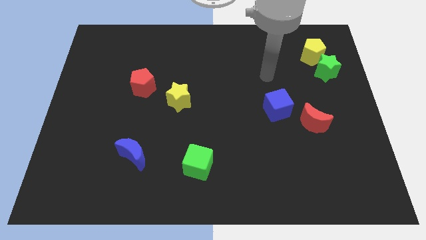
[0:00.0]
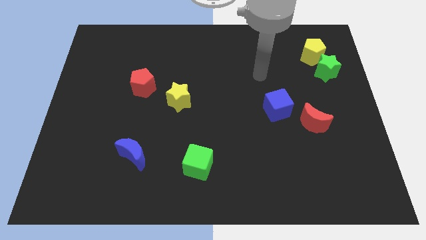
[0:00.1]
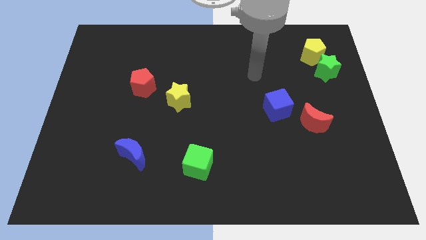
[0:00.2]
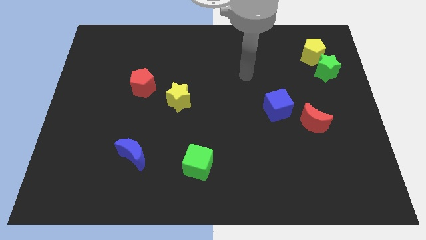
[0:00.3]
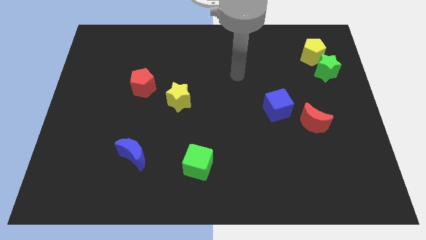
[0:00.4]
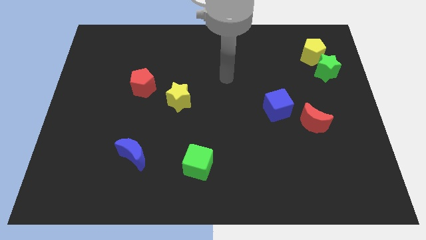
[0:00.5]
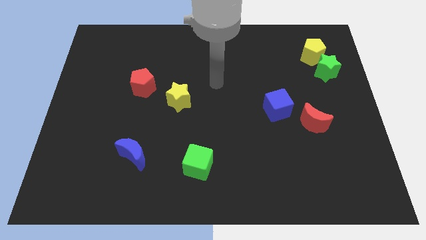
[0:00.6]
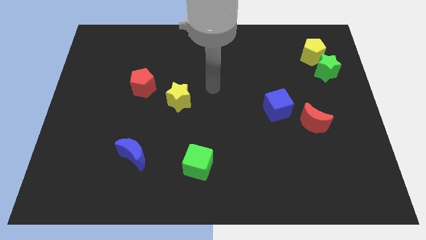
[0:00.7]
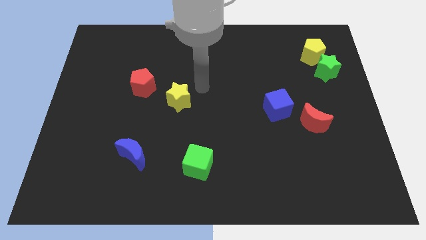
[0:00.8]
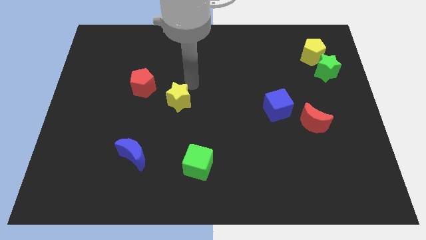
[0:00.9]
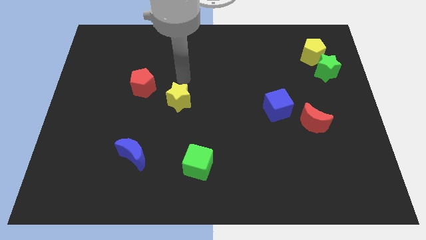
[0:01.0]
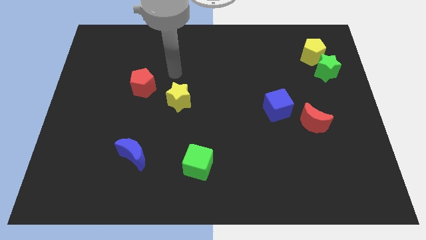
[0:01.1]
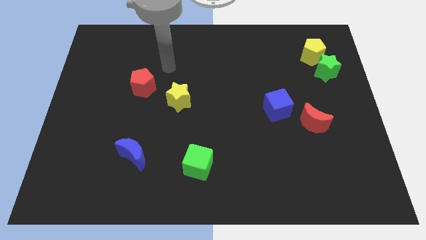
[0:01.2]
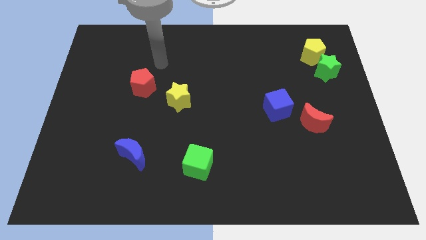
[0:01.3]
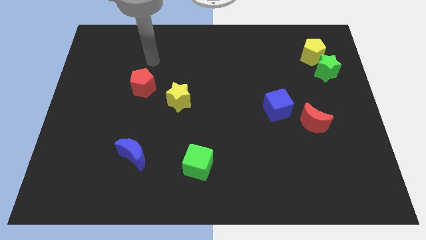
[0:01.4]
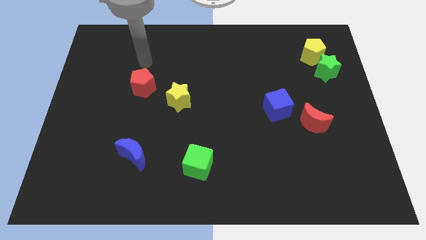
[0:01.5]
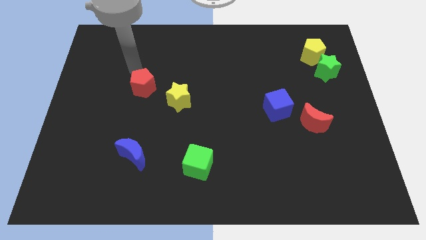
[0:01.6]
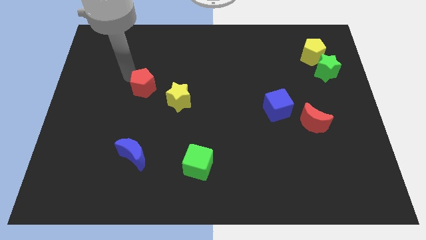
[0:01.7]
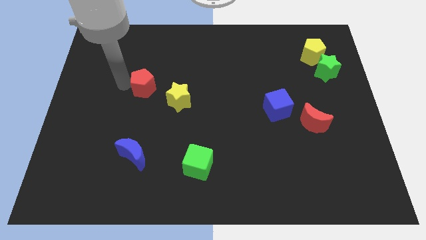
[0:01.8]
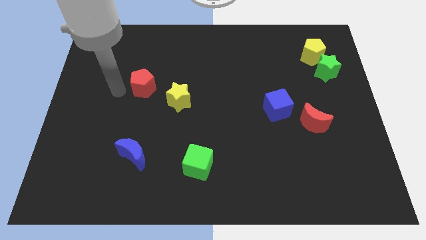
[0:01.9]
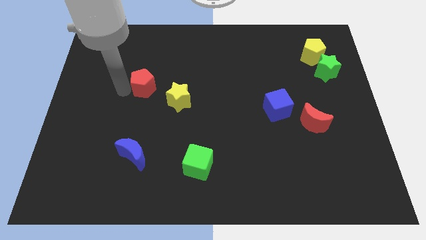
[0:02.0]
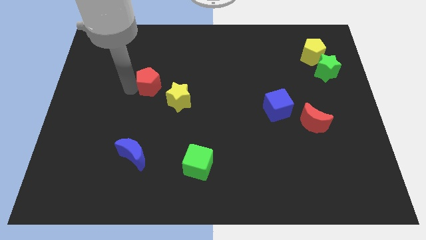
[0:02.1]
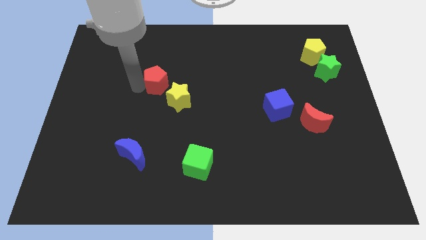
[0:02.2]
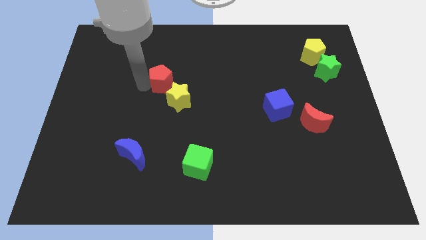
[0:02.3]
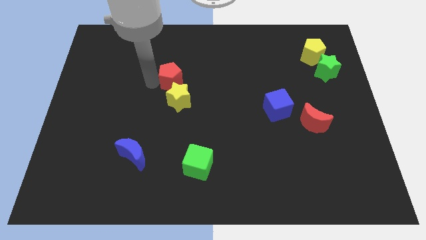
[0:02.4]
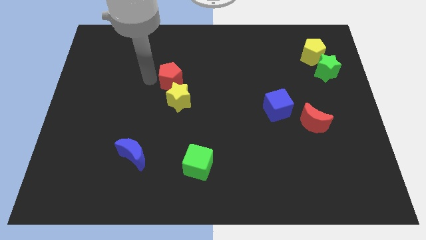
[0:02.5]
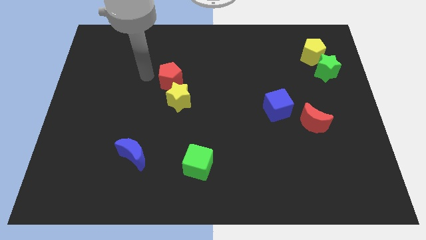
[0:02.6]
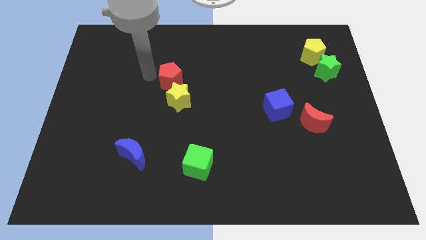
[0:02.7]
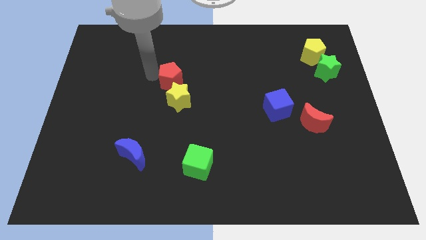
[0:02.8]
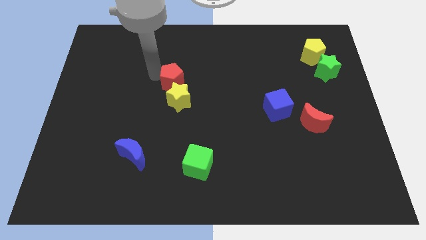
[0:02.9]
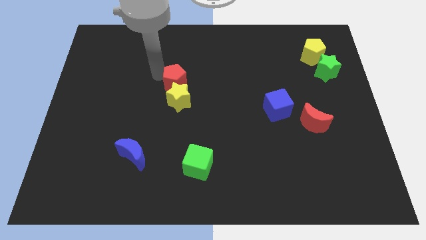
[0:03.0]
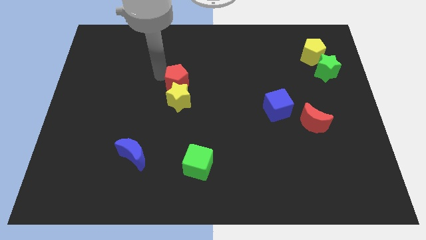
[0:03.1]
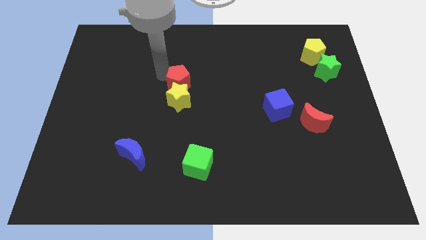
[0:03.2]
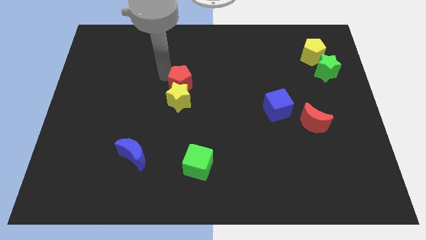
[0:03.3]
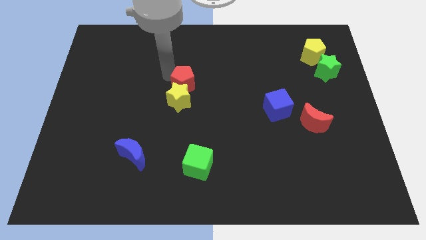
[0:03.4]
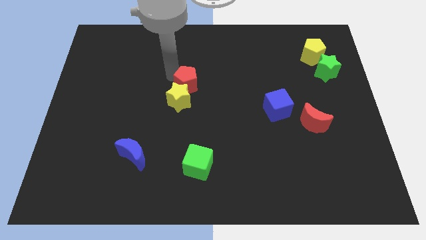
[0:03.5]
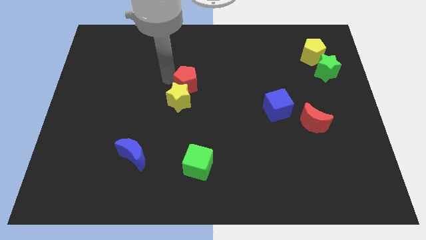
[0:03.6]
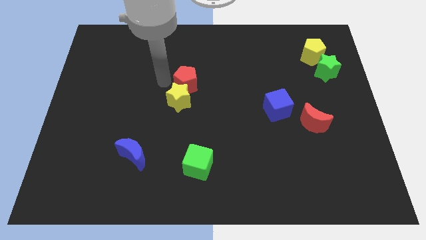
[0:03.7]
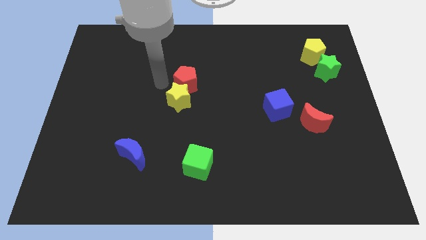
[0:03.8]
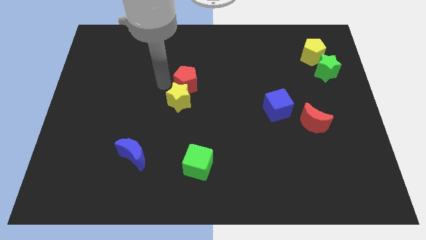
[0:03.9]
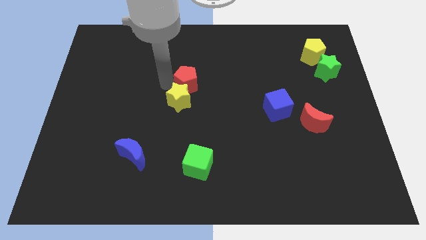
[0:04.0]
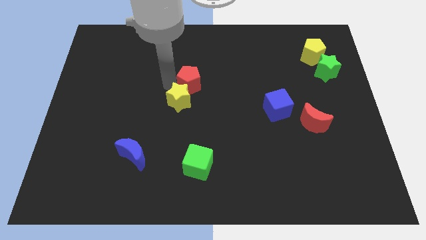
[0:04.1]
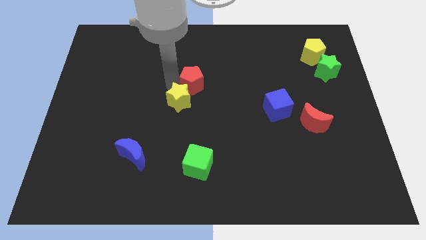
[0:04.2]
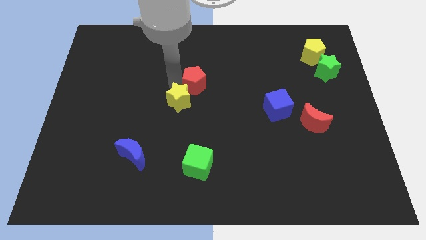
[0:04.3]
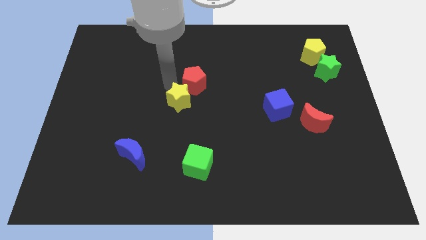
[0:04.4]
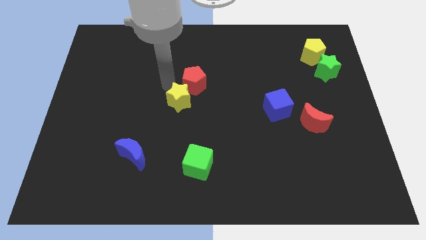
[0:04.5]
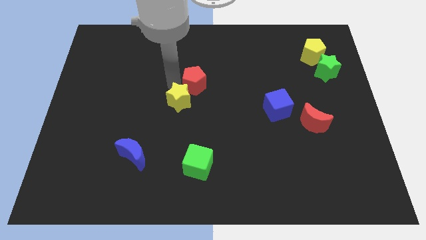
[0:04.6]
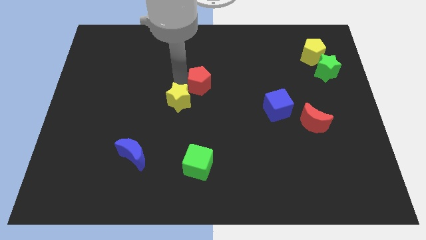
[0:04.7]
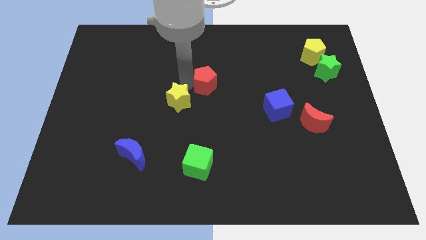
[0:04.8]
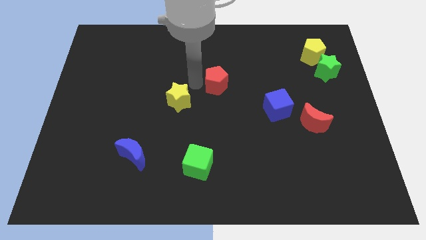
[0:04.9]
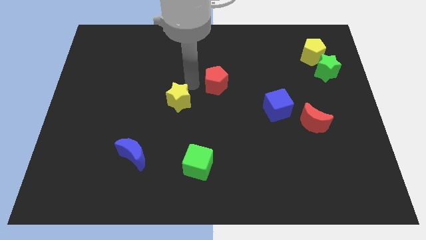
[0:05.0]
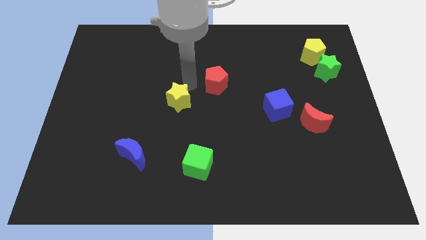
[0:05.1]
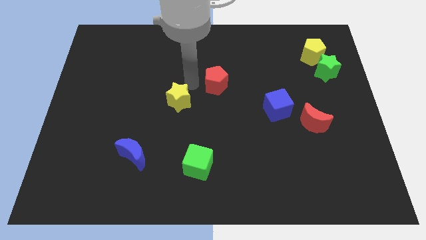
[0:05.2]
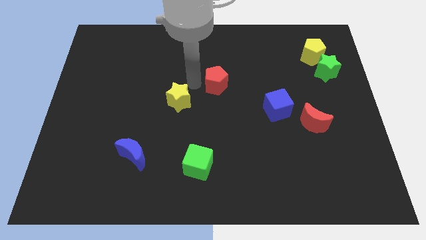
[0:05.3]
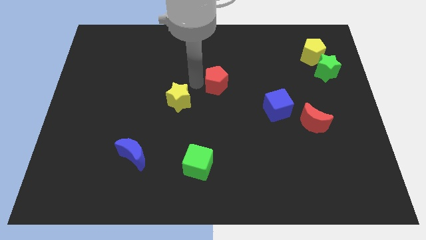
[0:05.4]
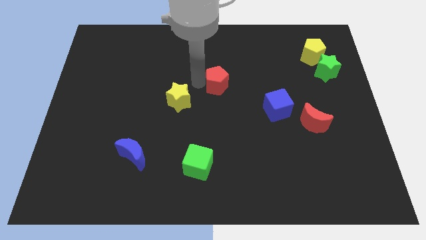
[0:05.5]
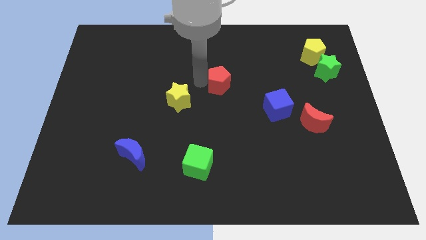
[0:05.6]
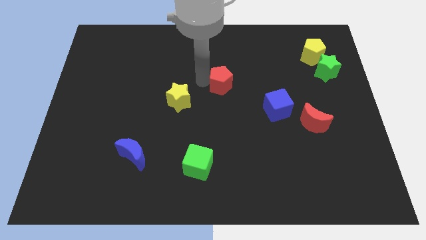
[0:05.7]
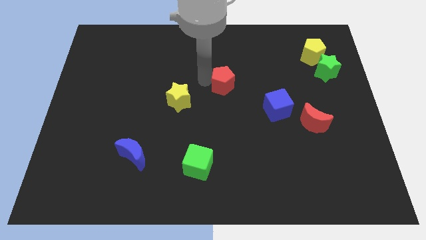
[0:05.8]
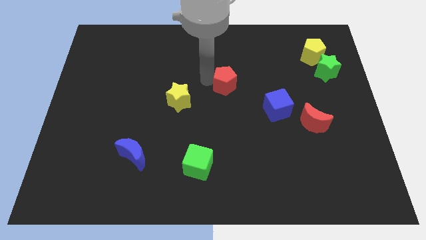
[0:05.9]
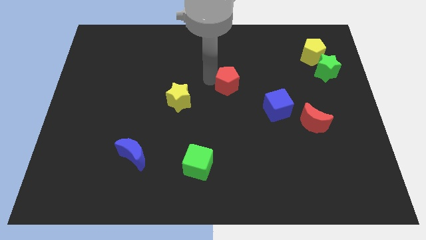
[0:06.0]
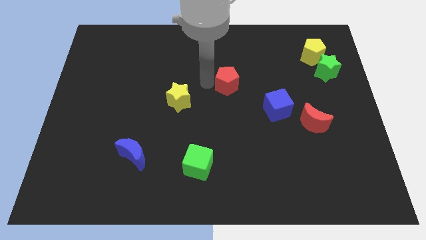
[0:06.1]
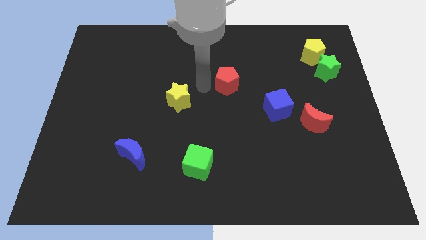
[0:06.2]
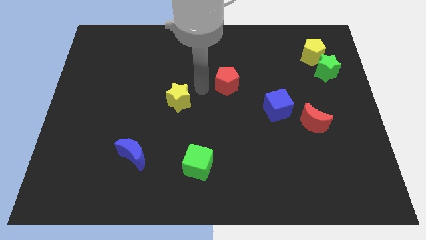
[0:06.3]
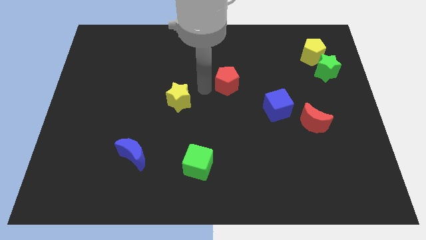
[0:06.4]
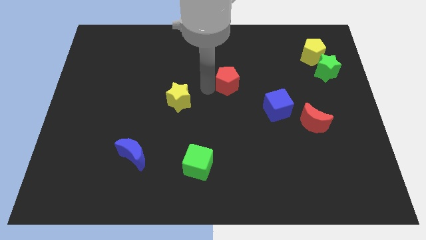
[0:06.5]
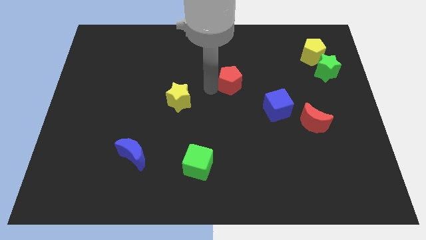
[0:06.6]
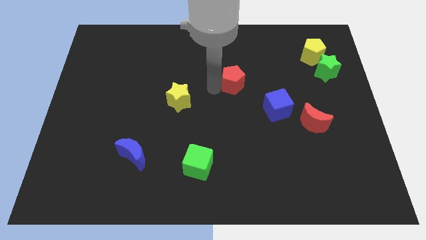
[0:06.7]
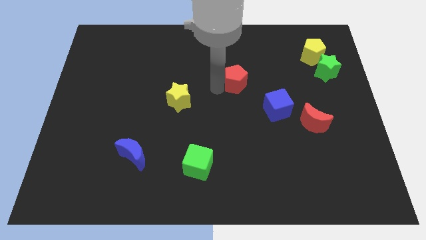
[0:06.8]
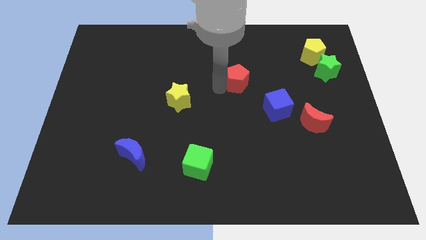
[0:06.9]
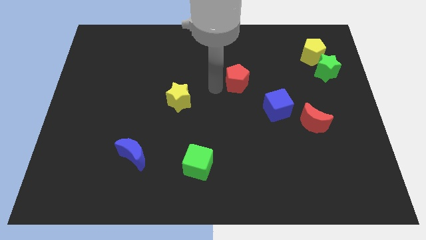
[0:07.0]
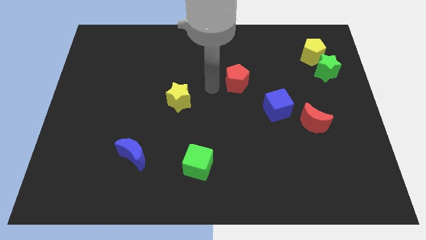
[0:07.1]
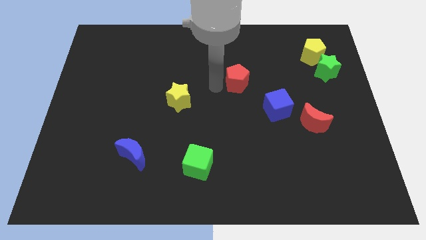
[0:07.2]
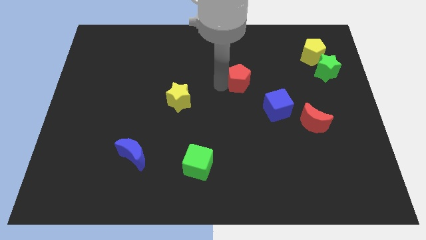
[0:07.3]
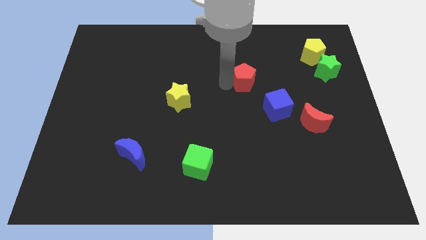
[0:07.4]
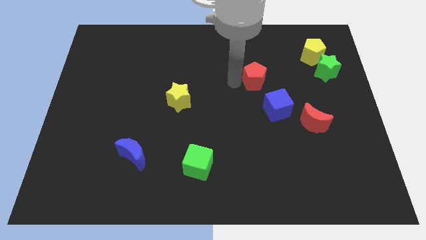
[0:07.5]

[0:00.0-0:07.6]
put the red pentagon to the top of the blue cube
